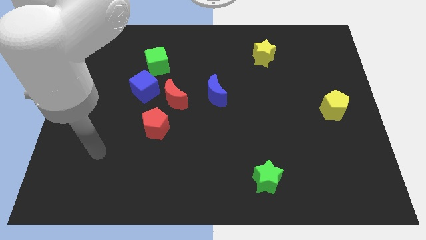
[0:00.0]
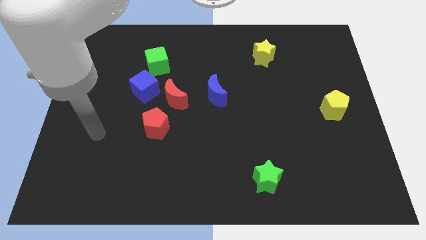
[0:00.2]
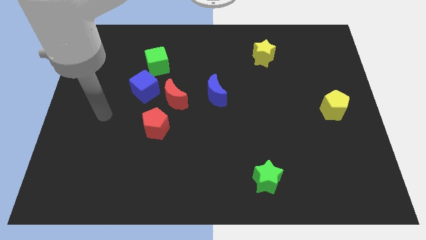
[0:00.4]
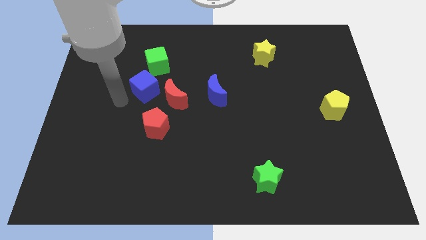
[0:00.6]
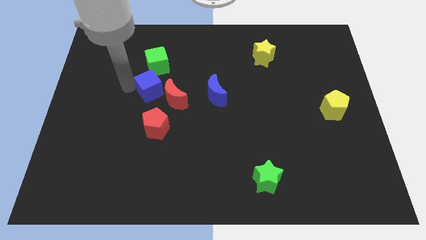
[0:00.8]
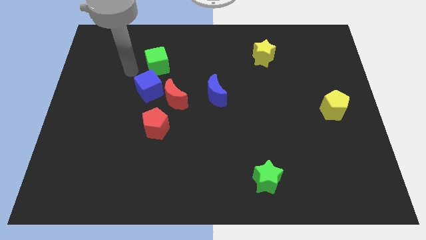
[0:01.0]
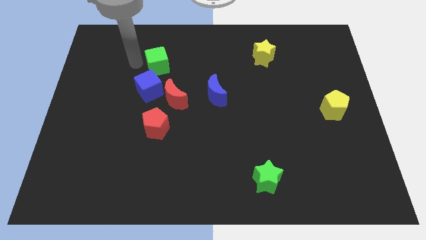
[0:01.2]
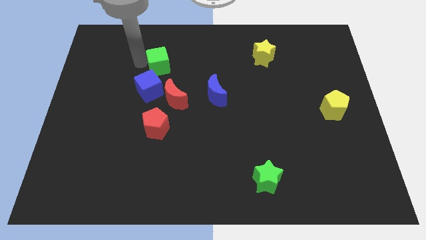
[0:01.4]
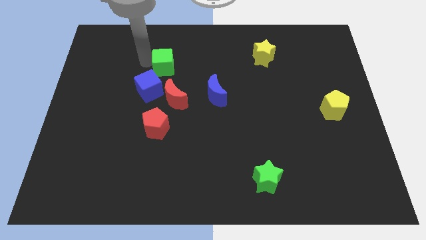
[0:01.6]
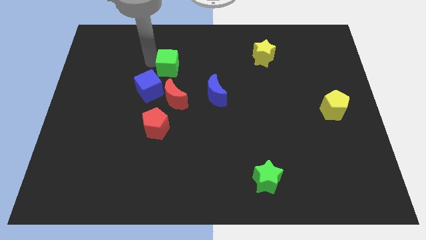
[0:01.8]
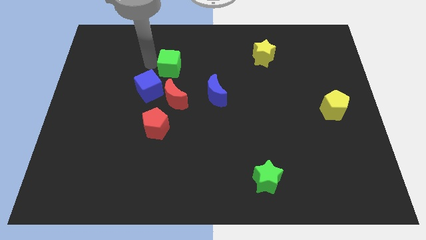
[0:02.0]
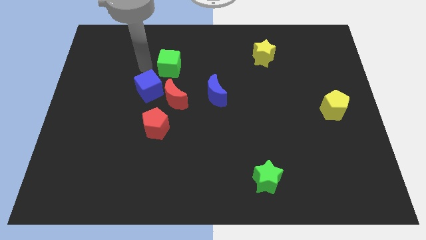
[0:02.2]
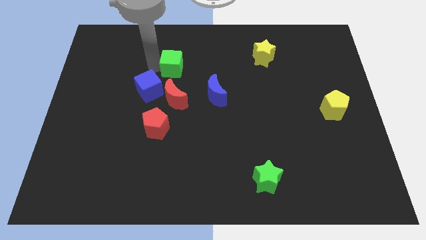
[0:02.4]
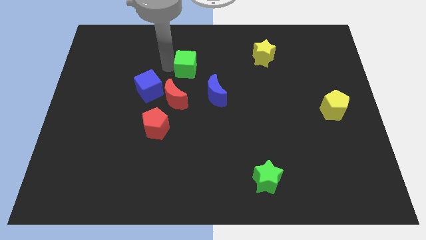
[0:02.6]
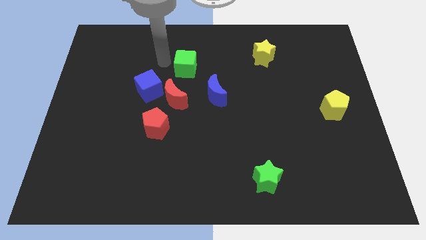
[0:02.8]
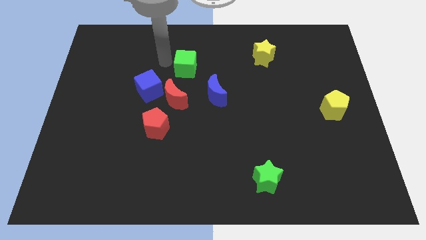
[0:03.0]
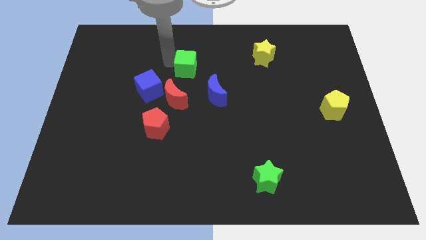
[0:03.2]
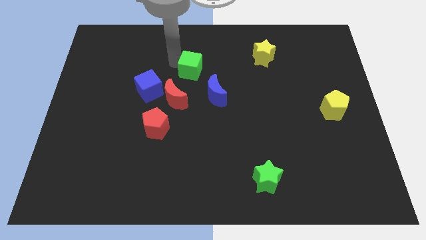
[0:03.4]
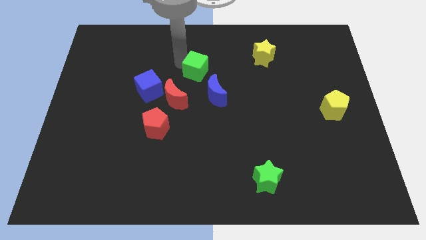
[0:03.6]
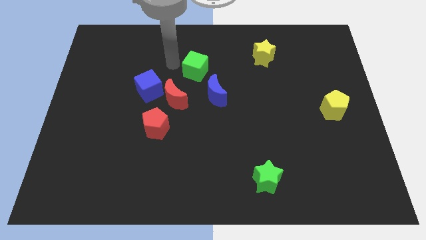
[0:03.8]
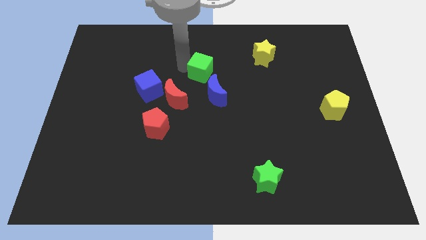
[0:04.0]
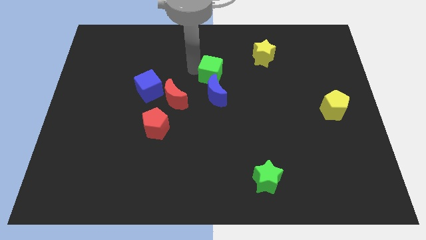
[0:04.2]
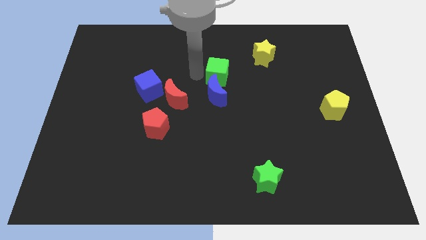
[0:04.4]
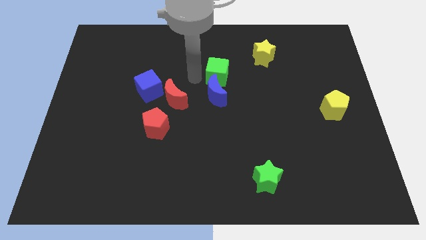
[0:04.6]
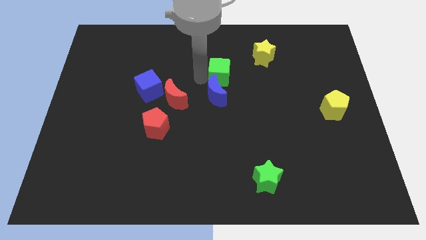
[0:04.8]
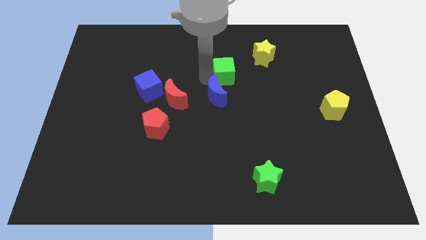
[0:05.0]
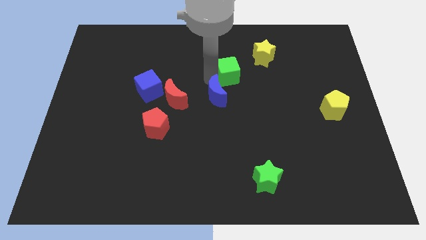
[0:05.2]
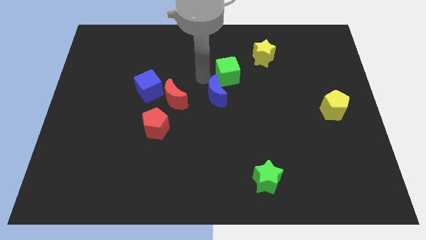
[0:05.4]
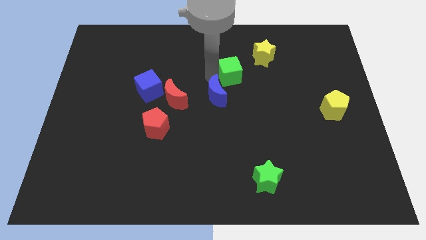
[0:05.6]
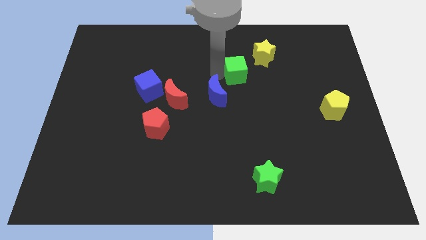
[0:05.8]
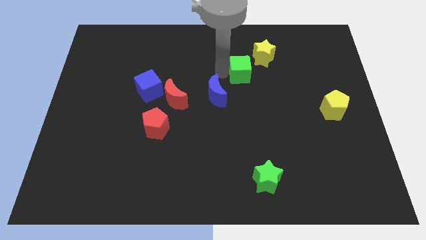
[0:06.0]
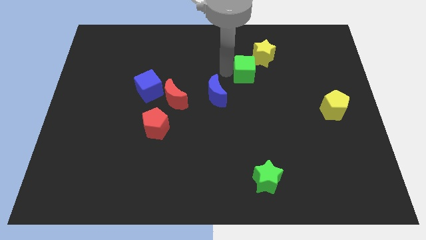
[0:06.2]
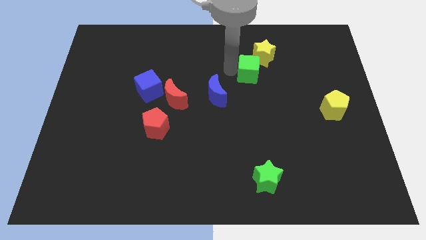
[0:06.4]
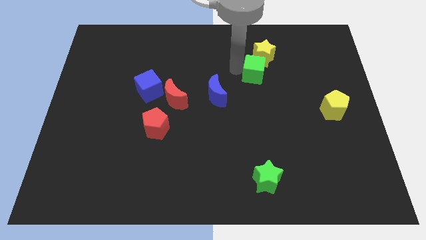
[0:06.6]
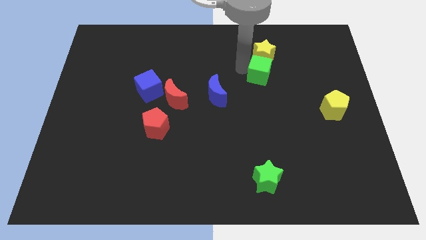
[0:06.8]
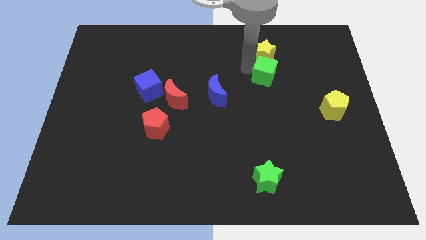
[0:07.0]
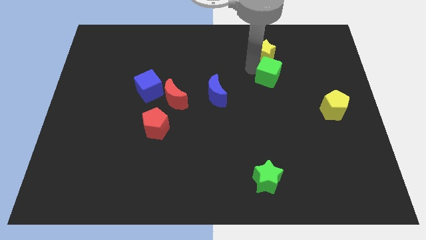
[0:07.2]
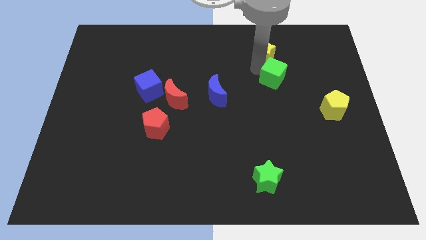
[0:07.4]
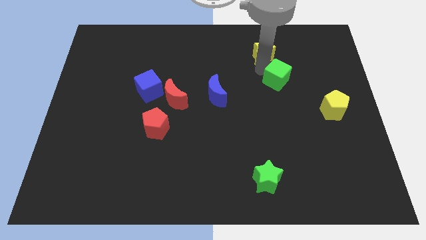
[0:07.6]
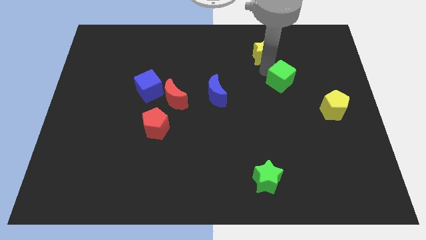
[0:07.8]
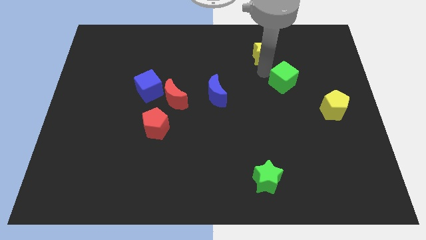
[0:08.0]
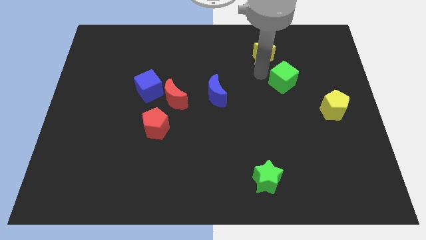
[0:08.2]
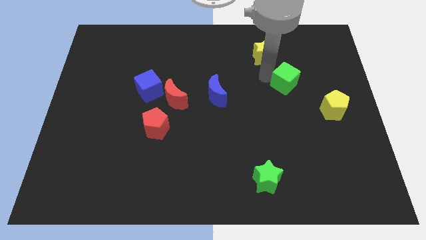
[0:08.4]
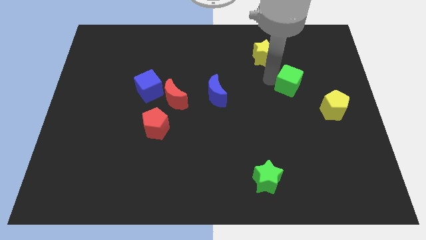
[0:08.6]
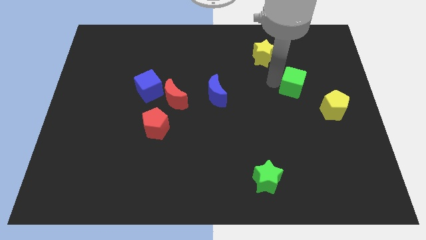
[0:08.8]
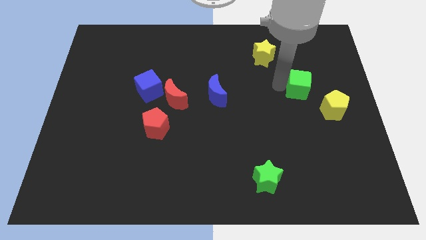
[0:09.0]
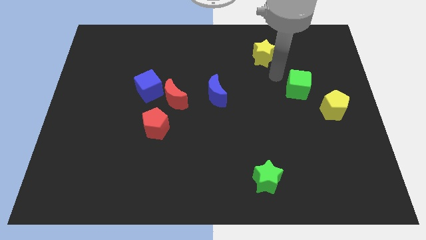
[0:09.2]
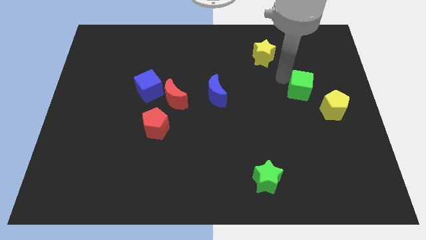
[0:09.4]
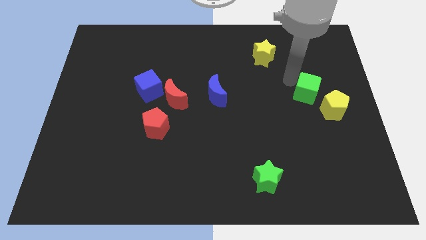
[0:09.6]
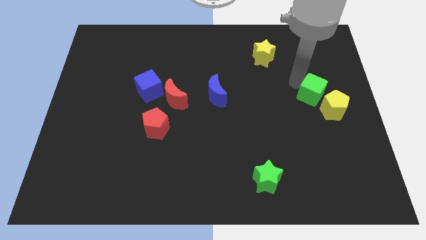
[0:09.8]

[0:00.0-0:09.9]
put the green cube close to the yellow pentagon

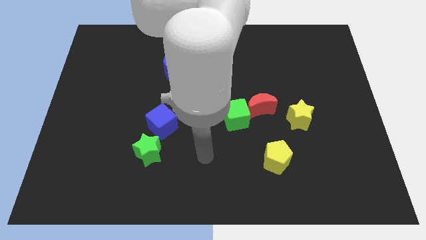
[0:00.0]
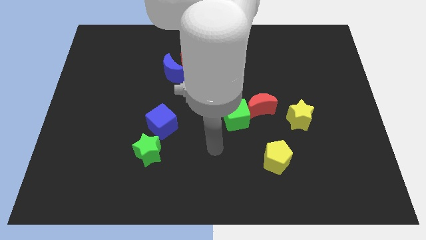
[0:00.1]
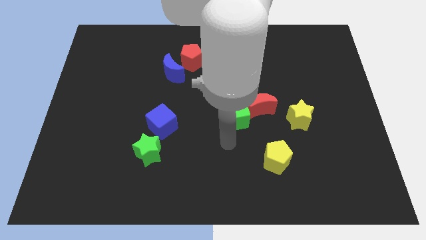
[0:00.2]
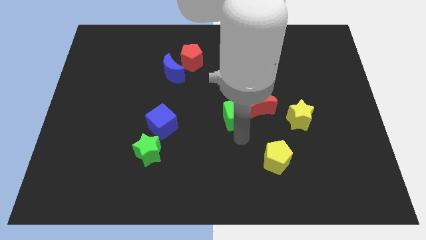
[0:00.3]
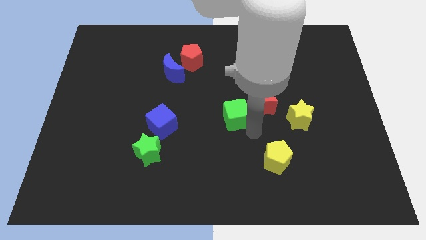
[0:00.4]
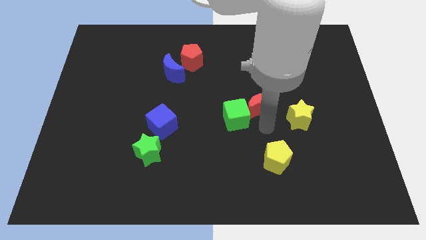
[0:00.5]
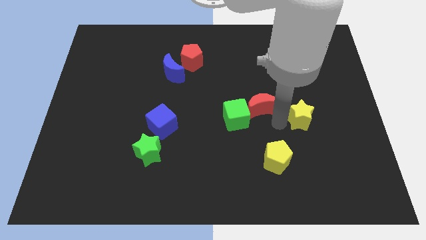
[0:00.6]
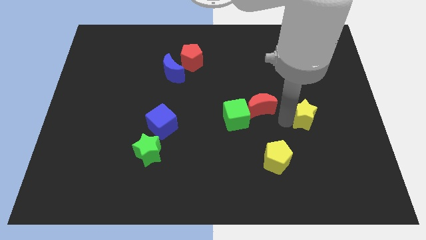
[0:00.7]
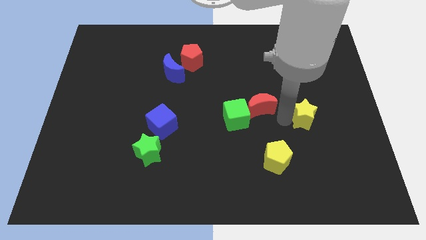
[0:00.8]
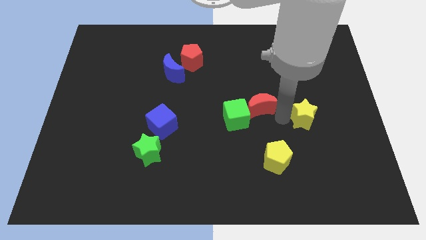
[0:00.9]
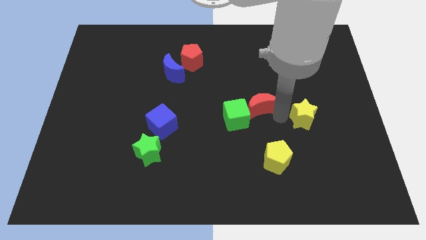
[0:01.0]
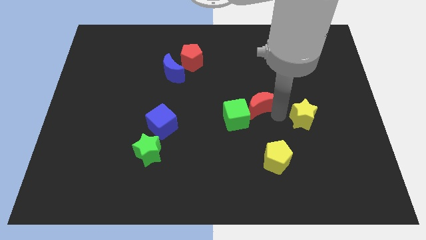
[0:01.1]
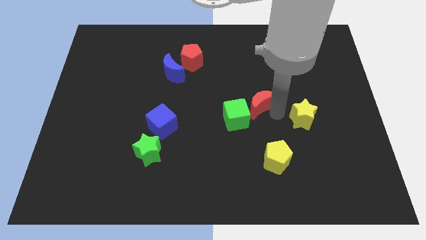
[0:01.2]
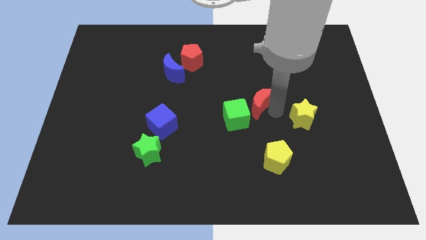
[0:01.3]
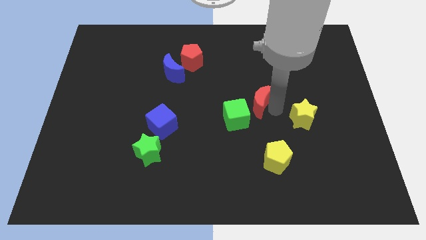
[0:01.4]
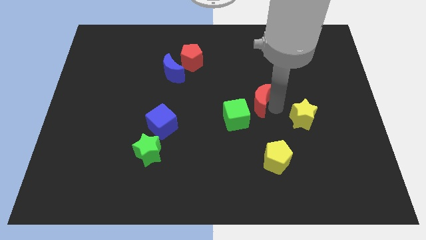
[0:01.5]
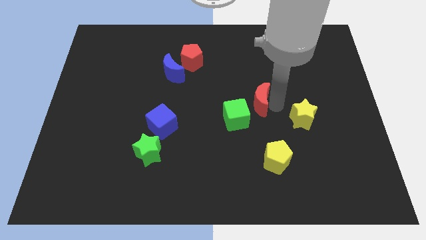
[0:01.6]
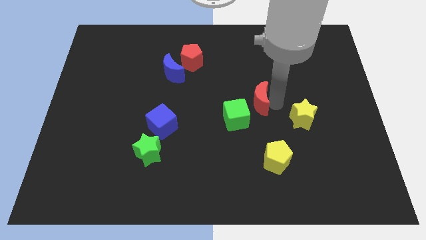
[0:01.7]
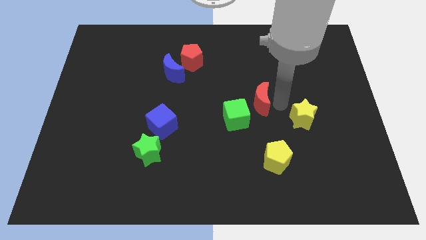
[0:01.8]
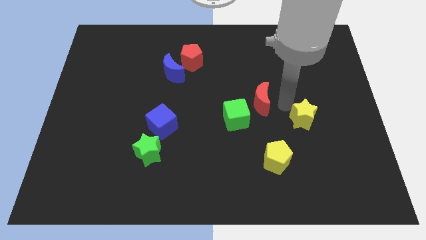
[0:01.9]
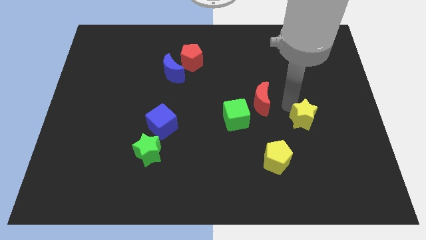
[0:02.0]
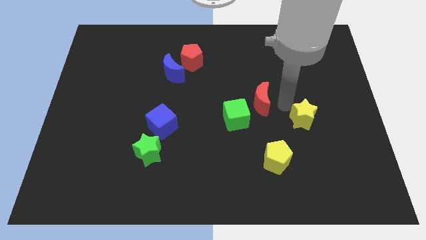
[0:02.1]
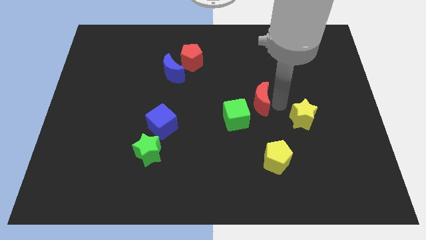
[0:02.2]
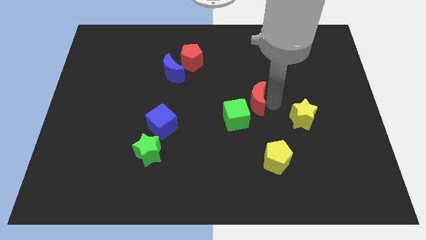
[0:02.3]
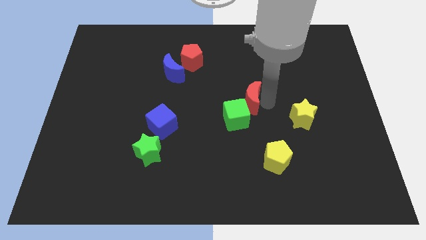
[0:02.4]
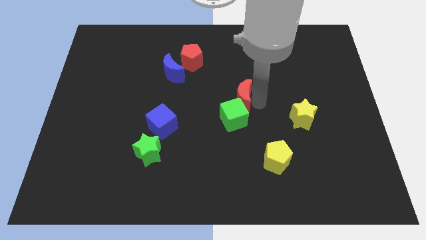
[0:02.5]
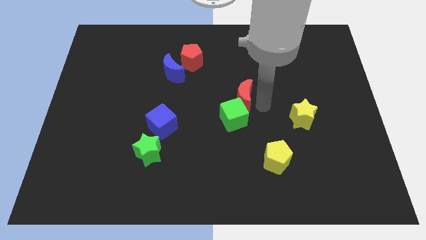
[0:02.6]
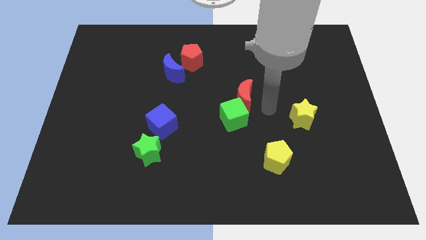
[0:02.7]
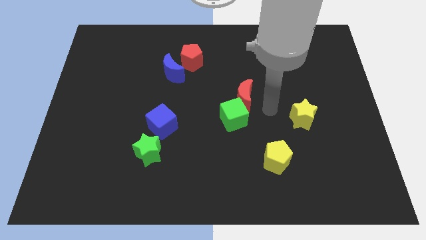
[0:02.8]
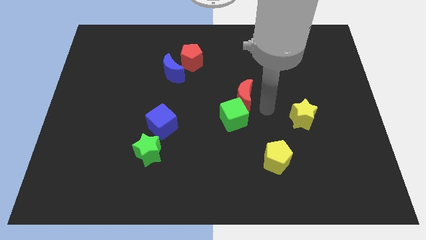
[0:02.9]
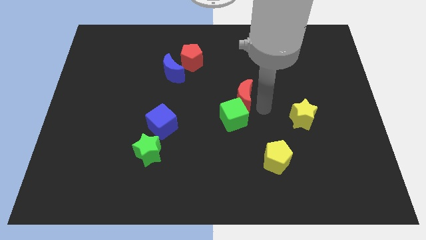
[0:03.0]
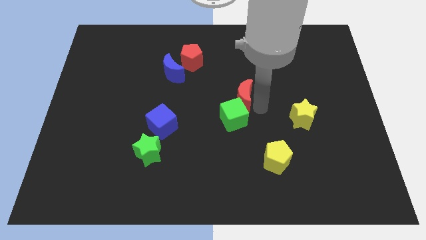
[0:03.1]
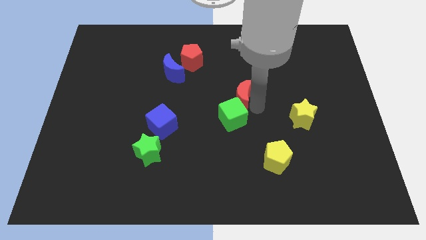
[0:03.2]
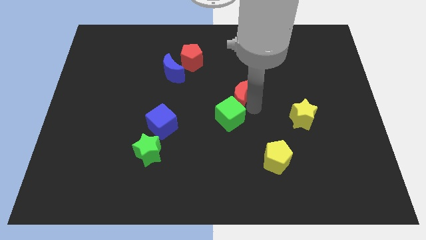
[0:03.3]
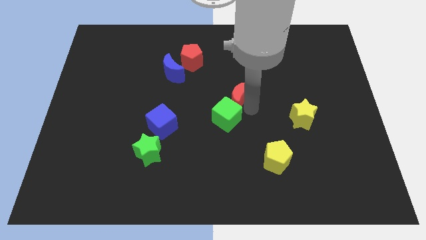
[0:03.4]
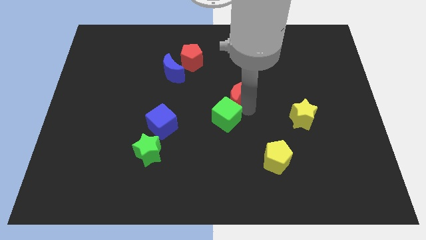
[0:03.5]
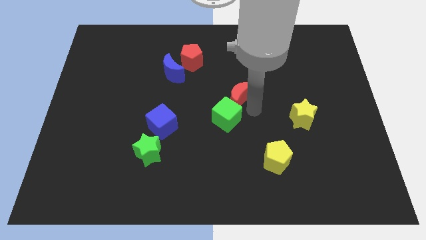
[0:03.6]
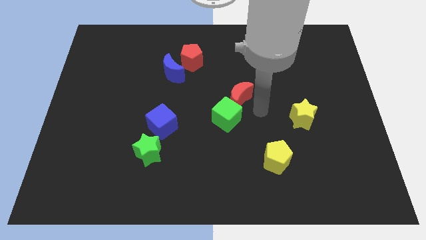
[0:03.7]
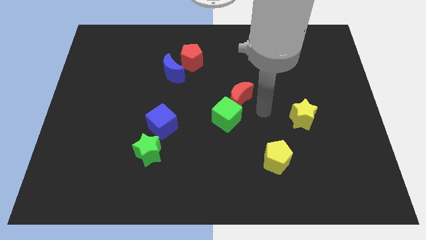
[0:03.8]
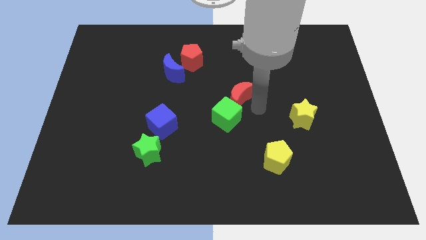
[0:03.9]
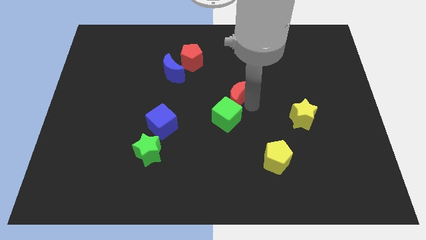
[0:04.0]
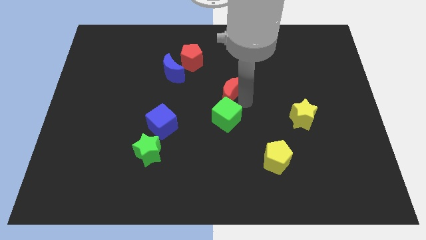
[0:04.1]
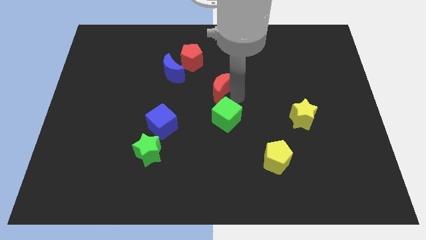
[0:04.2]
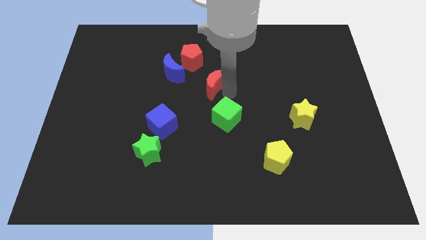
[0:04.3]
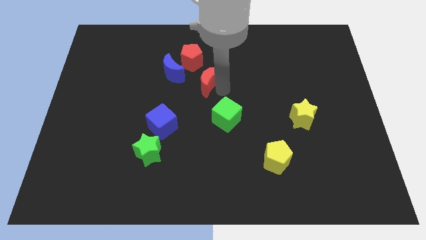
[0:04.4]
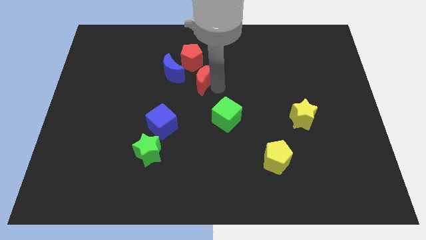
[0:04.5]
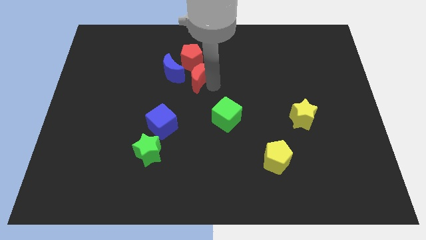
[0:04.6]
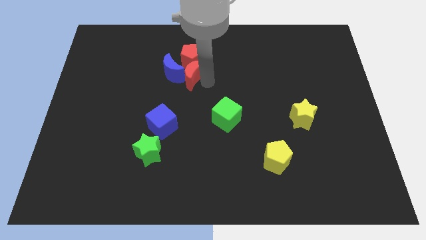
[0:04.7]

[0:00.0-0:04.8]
put the red moon next to the blue moon
